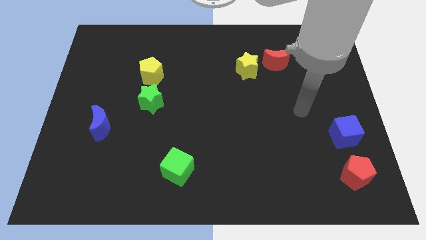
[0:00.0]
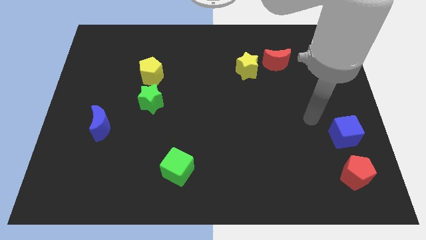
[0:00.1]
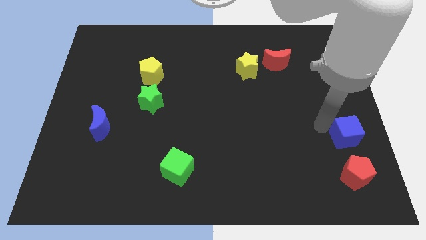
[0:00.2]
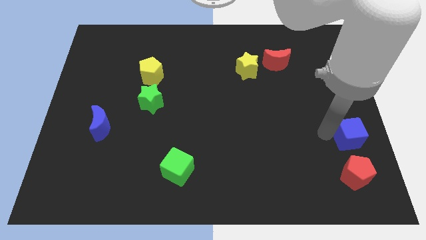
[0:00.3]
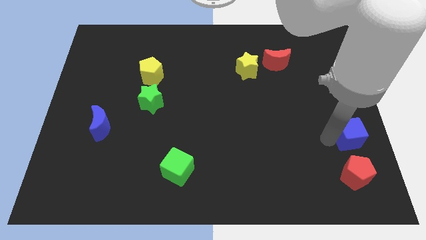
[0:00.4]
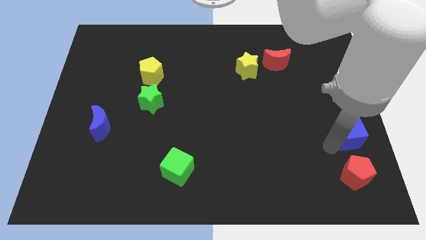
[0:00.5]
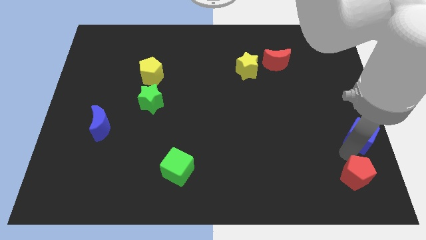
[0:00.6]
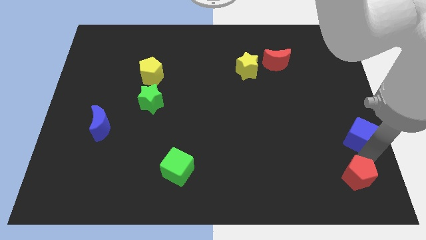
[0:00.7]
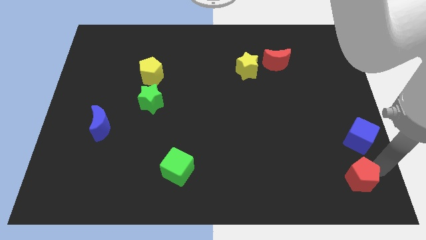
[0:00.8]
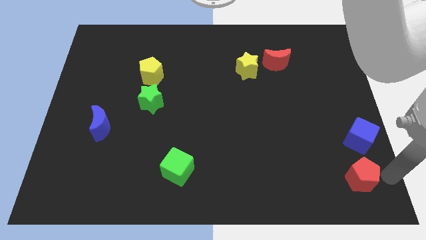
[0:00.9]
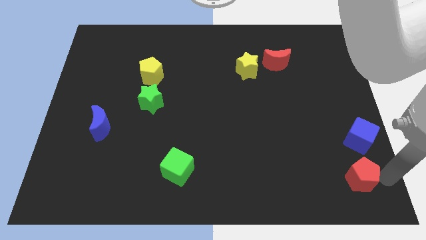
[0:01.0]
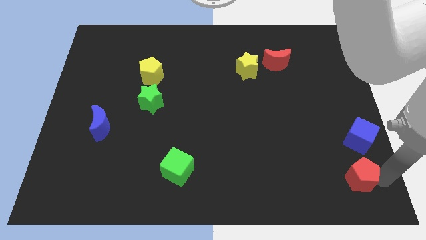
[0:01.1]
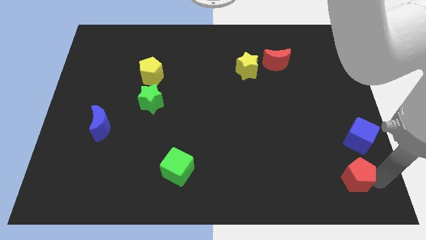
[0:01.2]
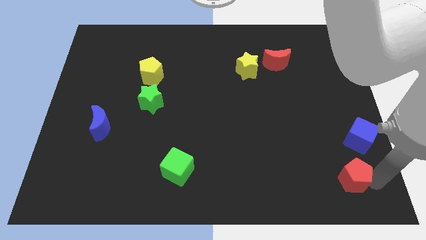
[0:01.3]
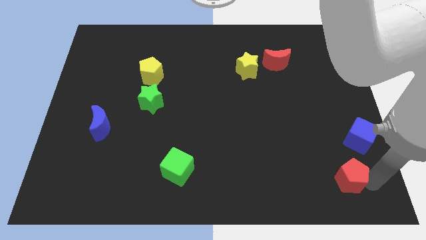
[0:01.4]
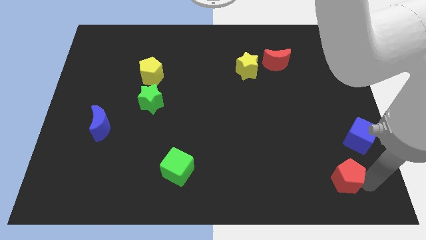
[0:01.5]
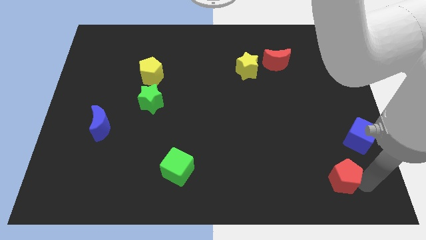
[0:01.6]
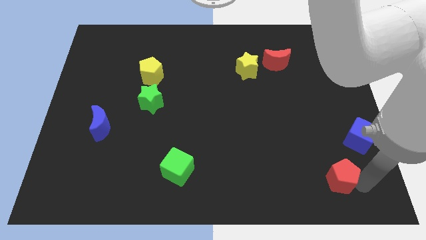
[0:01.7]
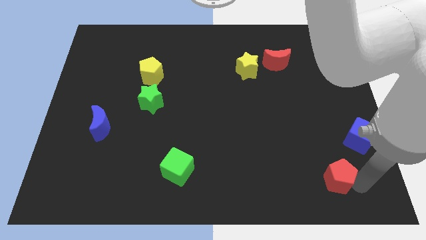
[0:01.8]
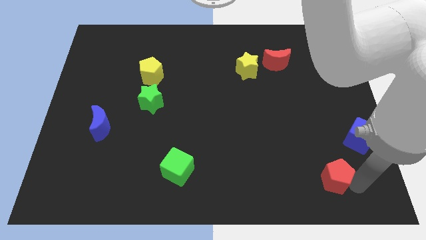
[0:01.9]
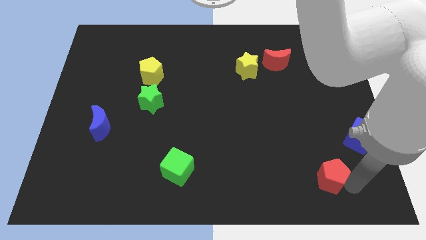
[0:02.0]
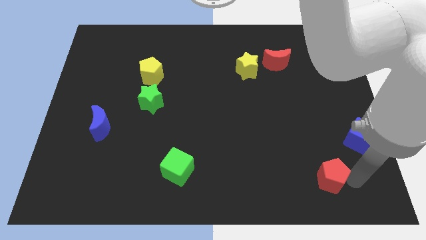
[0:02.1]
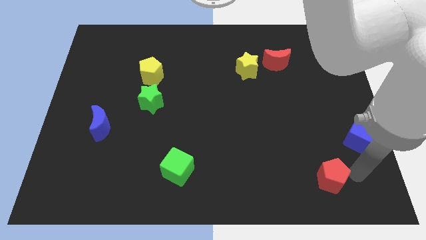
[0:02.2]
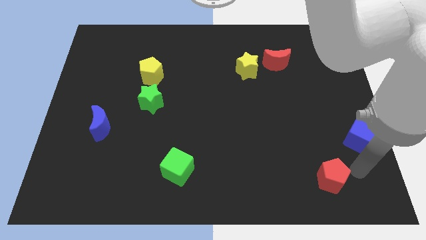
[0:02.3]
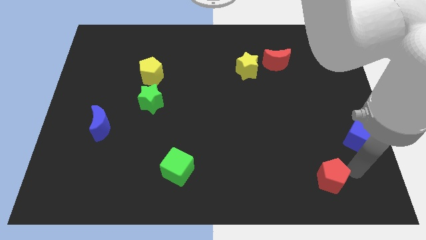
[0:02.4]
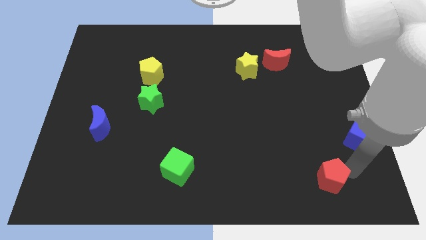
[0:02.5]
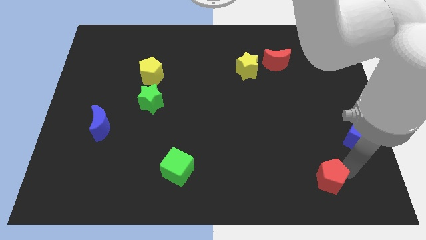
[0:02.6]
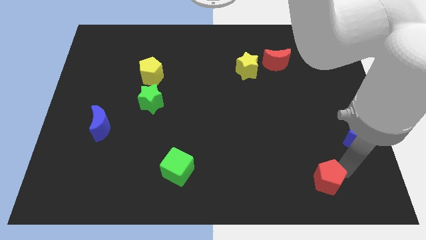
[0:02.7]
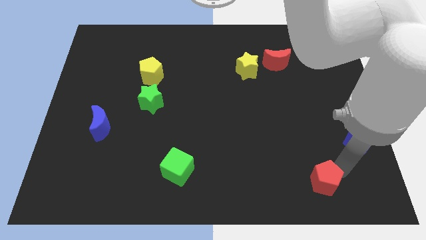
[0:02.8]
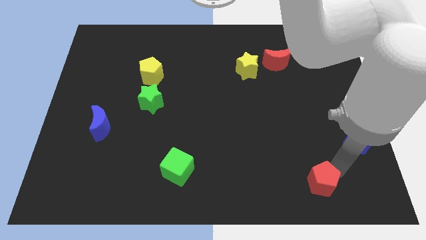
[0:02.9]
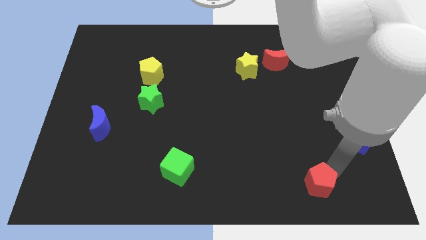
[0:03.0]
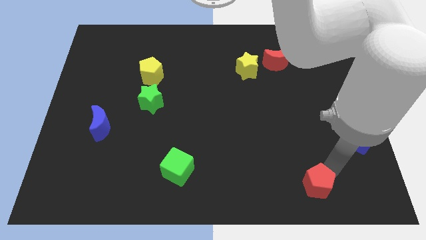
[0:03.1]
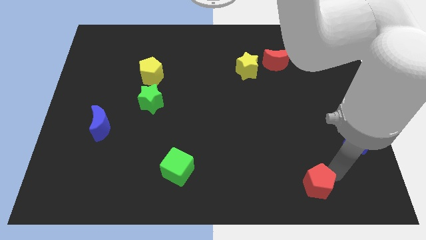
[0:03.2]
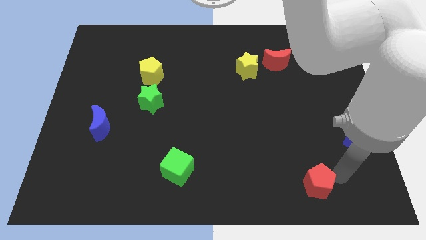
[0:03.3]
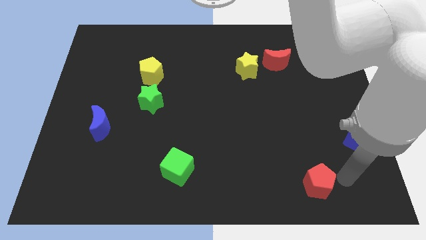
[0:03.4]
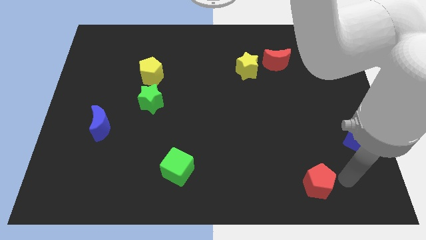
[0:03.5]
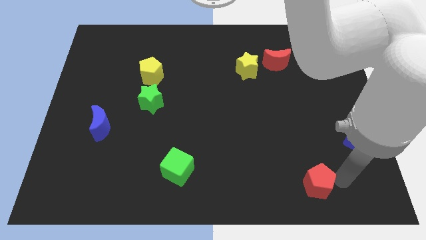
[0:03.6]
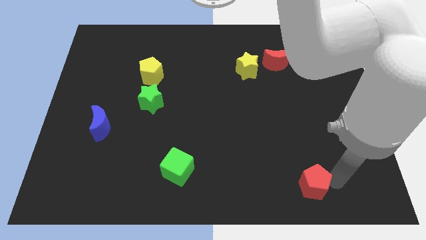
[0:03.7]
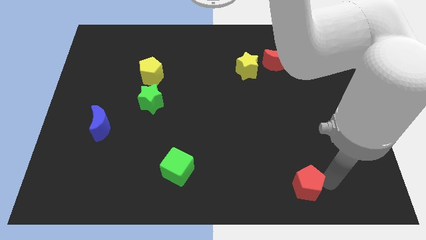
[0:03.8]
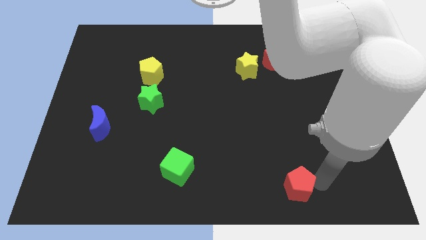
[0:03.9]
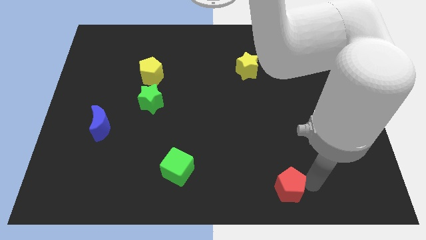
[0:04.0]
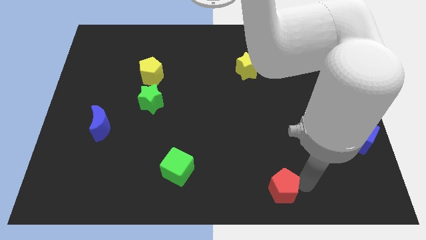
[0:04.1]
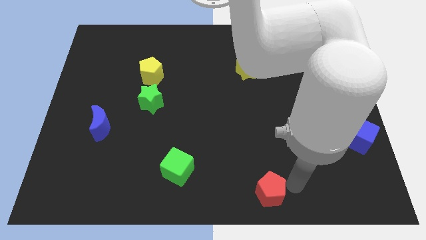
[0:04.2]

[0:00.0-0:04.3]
put the red pentagon to the bottom side

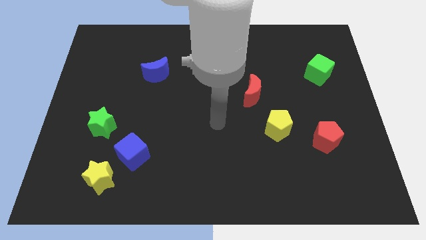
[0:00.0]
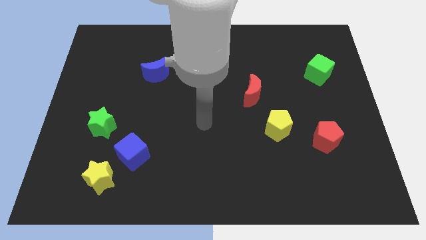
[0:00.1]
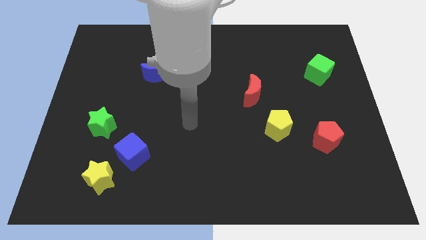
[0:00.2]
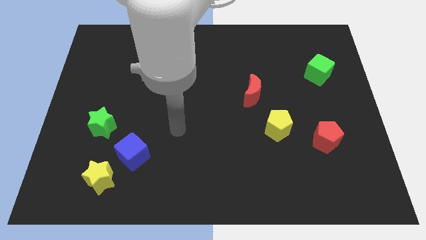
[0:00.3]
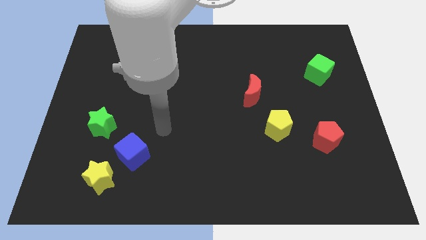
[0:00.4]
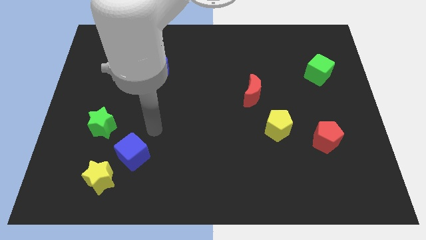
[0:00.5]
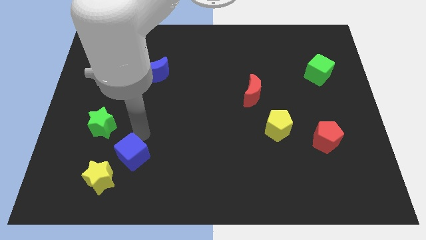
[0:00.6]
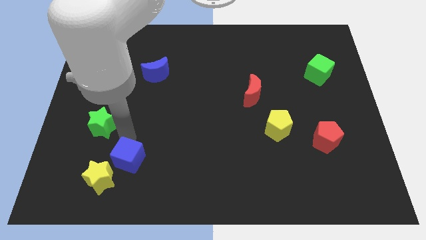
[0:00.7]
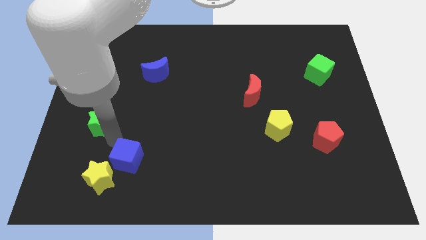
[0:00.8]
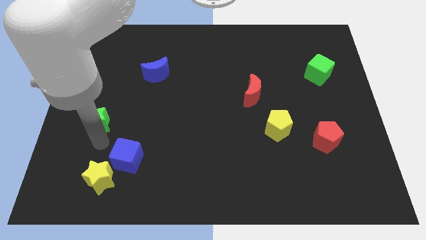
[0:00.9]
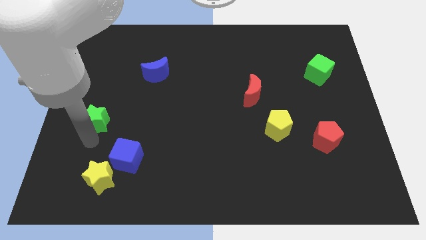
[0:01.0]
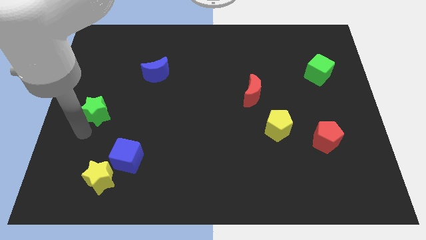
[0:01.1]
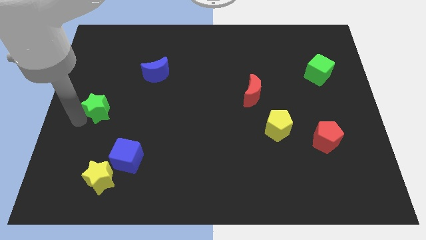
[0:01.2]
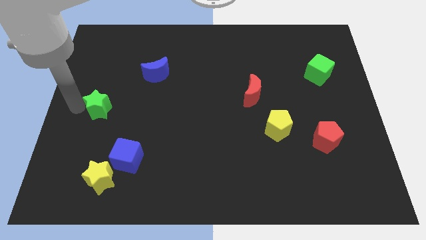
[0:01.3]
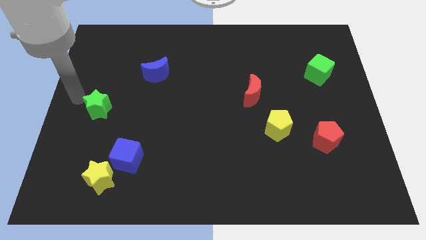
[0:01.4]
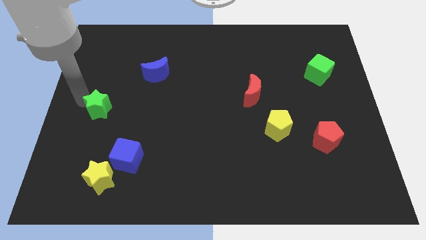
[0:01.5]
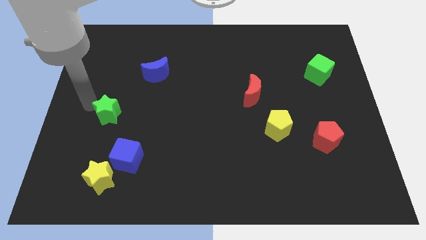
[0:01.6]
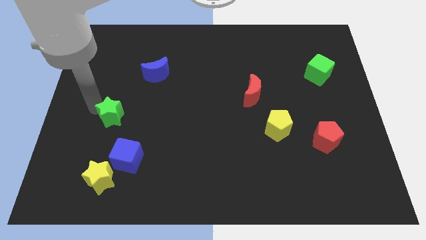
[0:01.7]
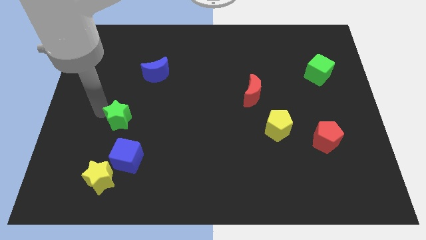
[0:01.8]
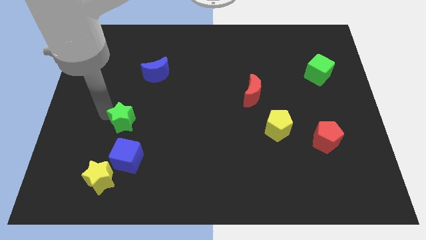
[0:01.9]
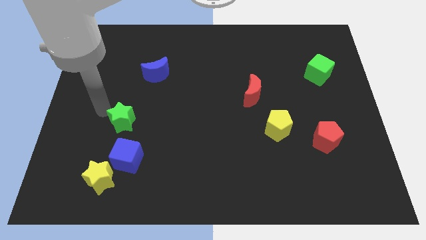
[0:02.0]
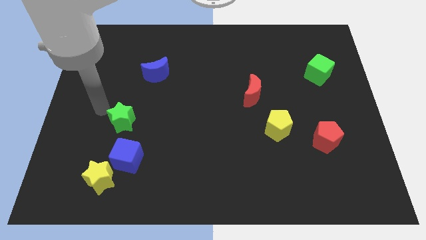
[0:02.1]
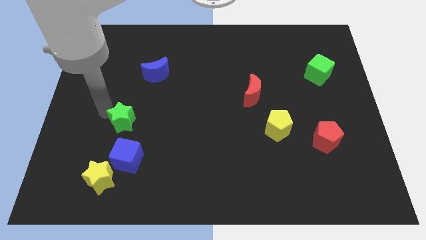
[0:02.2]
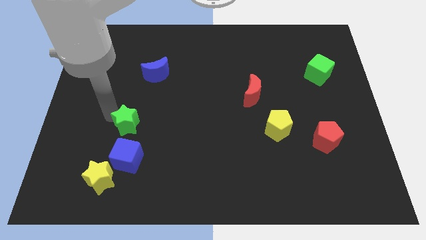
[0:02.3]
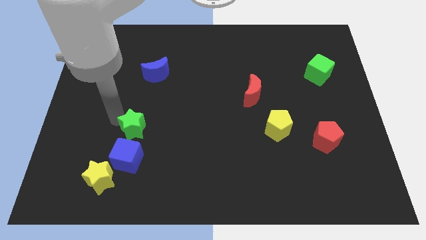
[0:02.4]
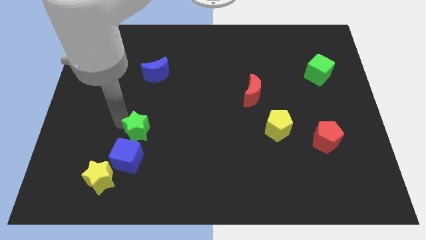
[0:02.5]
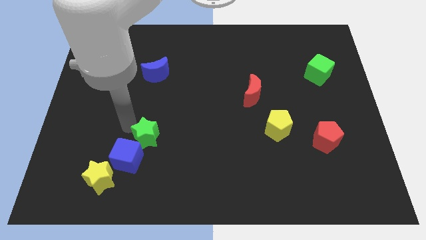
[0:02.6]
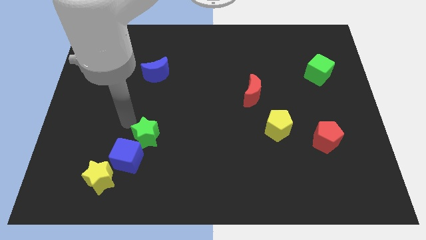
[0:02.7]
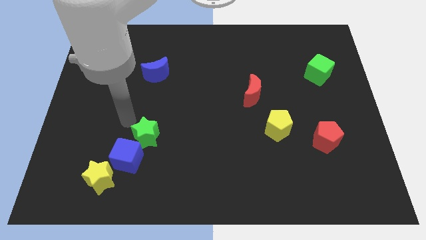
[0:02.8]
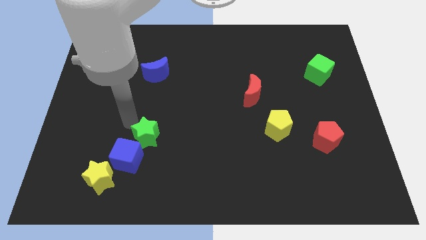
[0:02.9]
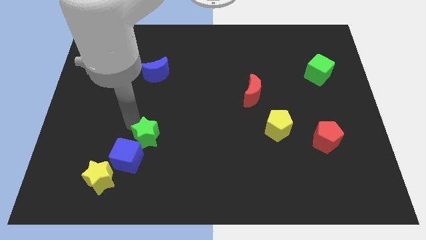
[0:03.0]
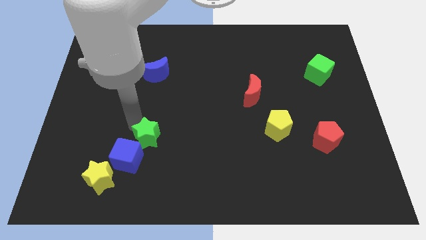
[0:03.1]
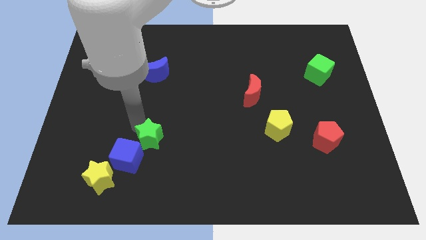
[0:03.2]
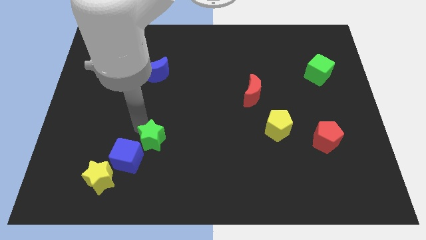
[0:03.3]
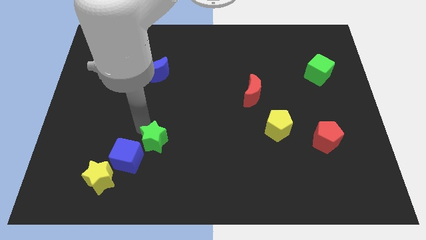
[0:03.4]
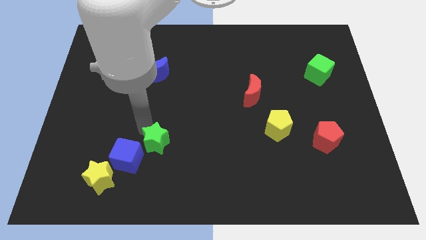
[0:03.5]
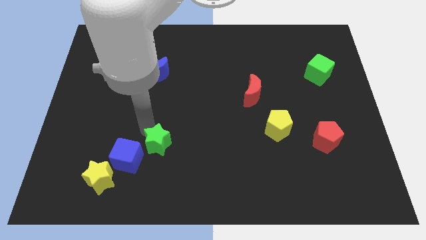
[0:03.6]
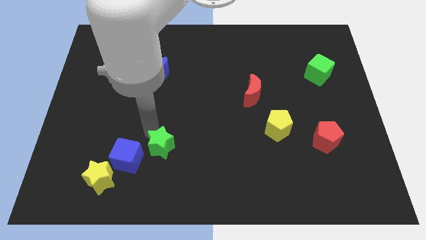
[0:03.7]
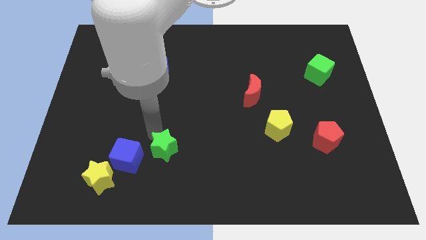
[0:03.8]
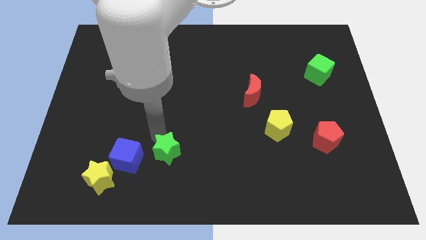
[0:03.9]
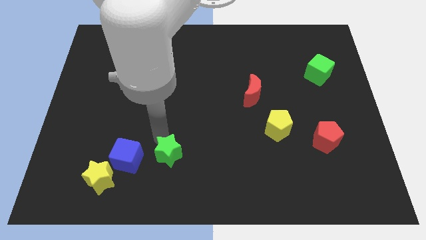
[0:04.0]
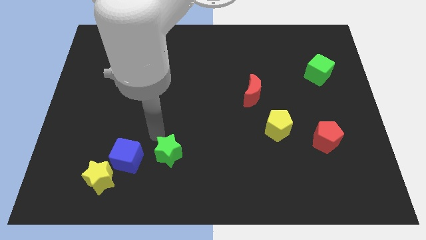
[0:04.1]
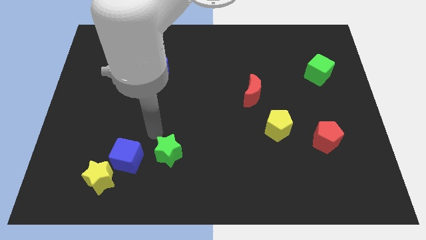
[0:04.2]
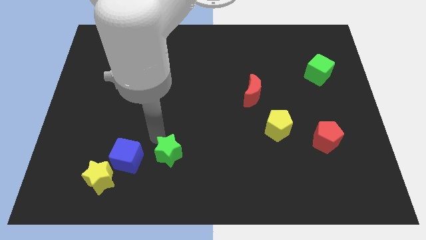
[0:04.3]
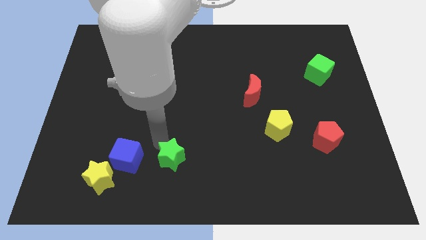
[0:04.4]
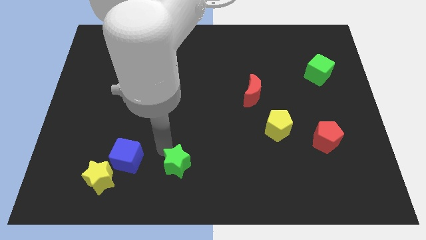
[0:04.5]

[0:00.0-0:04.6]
slide the green star to the bottom side
